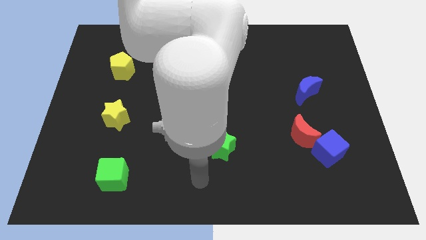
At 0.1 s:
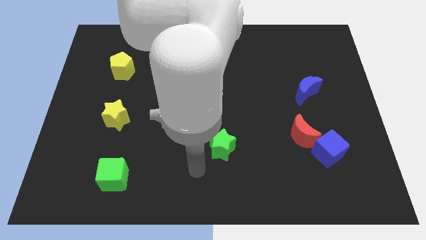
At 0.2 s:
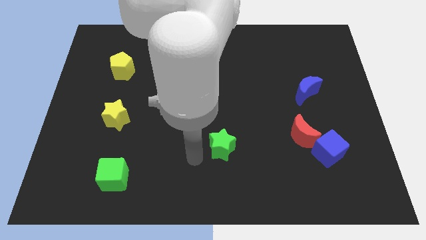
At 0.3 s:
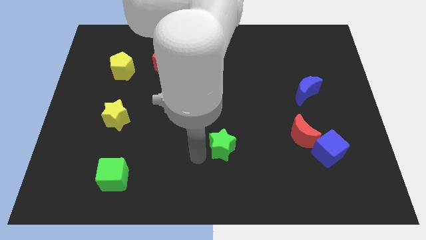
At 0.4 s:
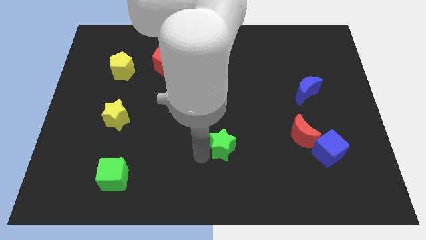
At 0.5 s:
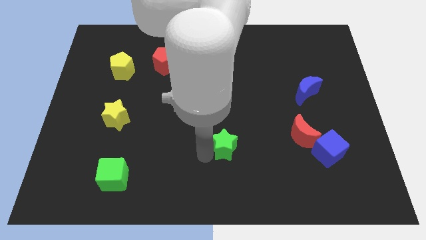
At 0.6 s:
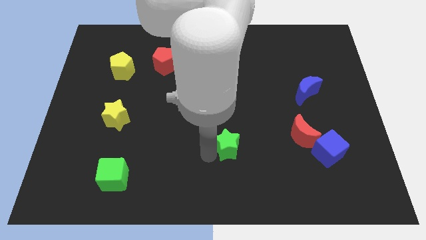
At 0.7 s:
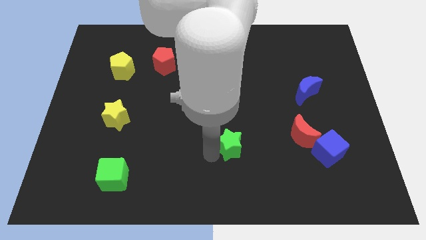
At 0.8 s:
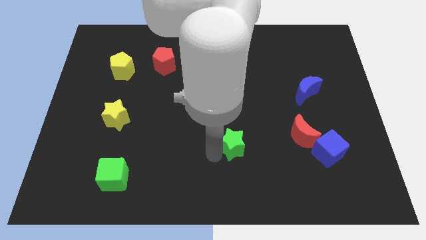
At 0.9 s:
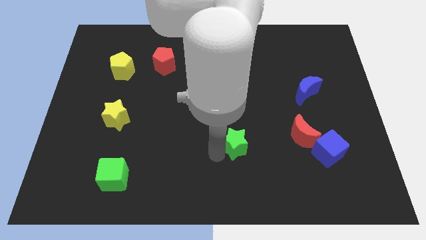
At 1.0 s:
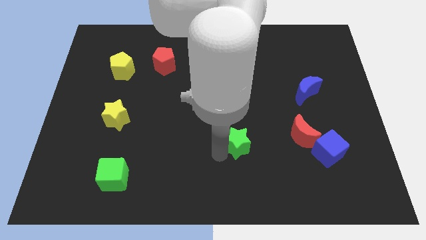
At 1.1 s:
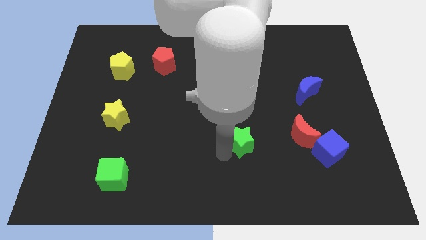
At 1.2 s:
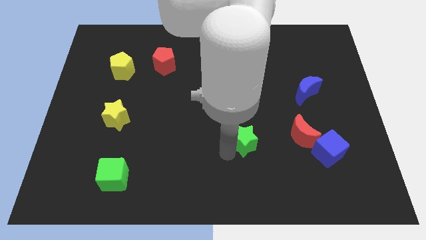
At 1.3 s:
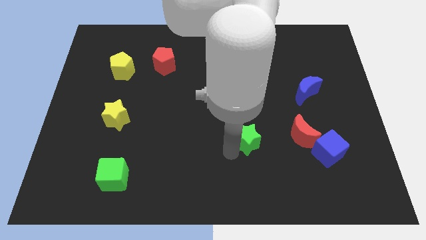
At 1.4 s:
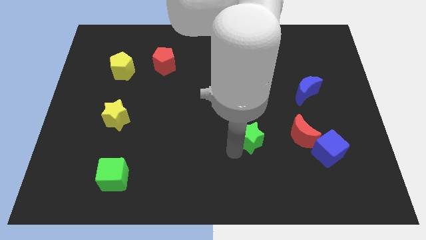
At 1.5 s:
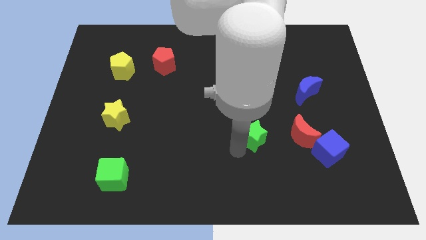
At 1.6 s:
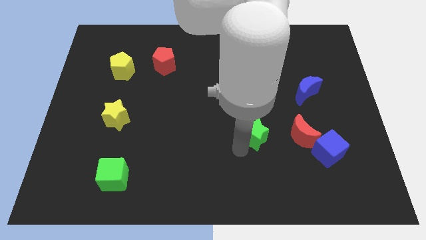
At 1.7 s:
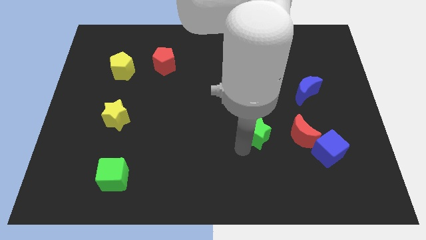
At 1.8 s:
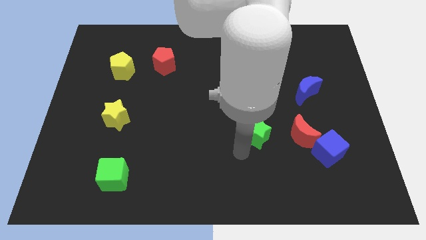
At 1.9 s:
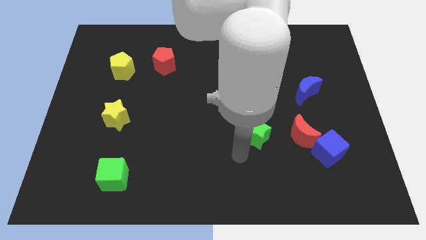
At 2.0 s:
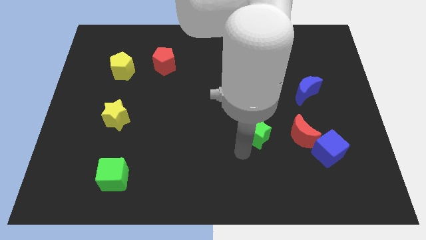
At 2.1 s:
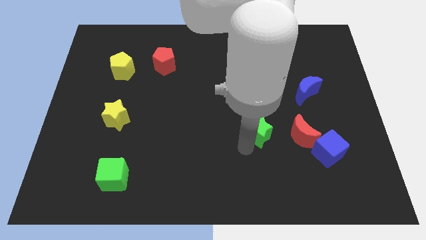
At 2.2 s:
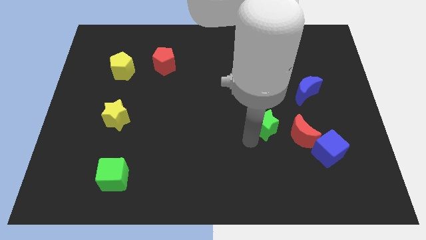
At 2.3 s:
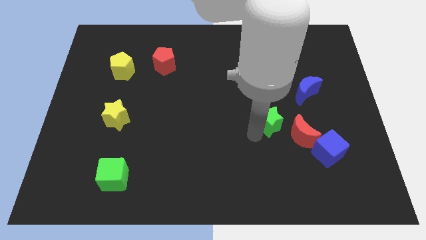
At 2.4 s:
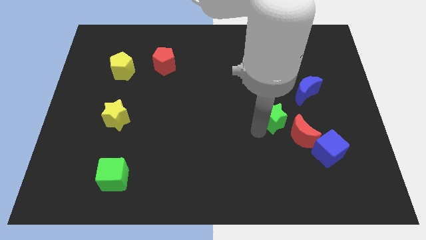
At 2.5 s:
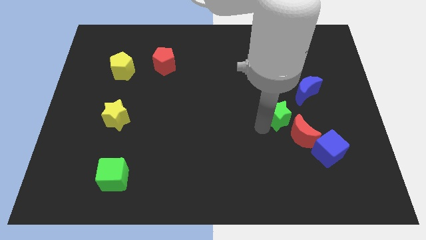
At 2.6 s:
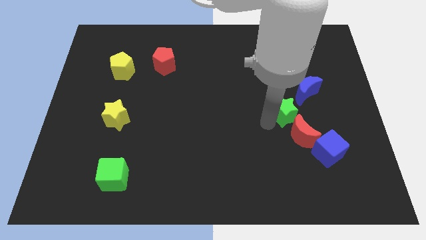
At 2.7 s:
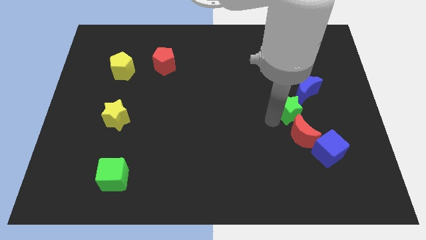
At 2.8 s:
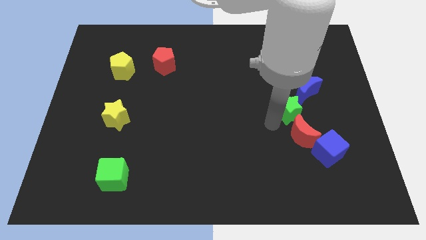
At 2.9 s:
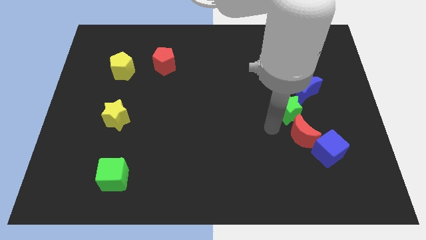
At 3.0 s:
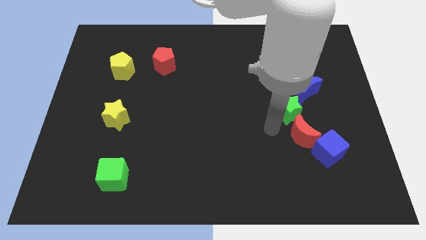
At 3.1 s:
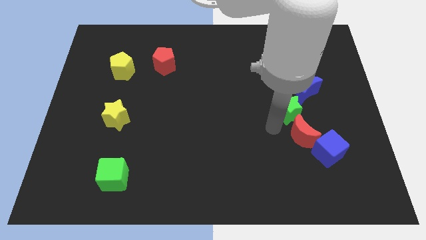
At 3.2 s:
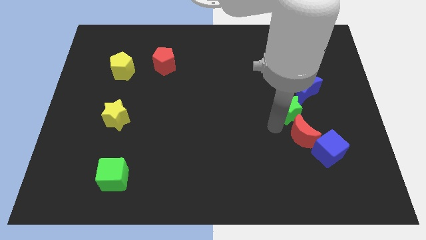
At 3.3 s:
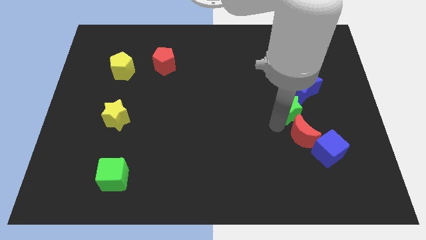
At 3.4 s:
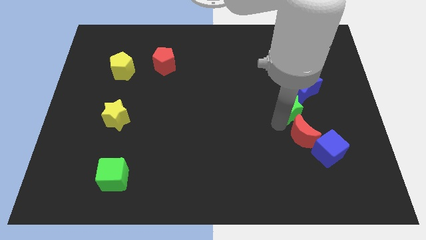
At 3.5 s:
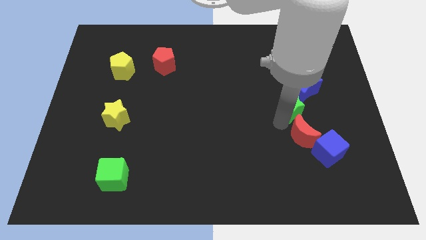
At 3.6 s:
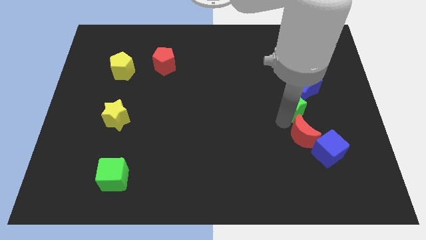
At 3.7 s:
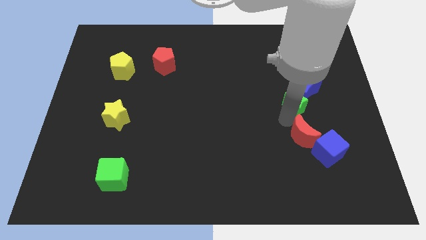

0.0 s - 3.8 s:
put the green star close to the blue moon

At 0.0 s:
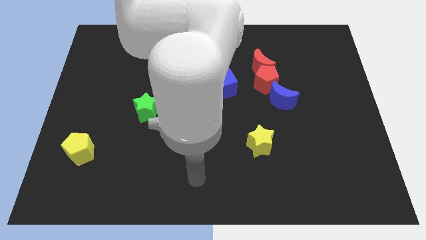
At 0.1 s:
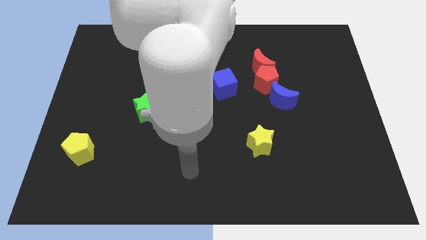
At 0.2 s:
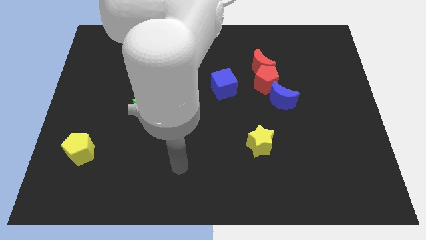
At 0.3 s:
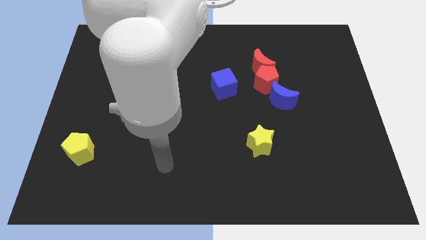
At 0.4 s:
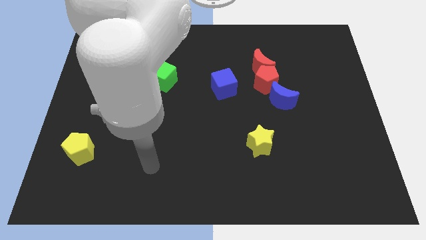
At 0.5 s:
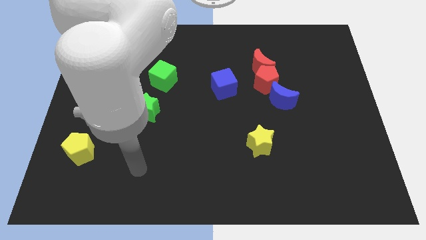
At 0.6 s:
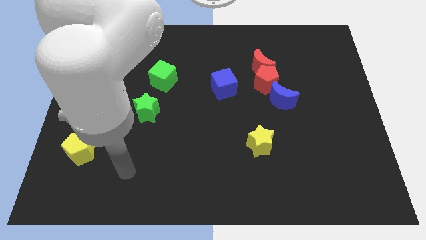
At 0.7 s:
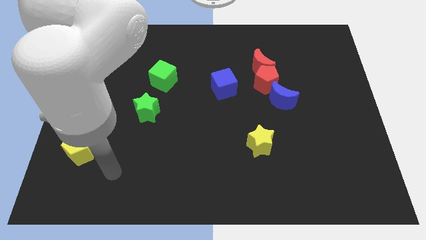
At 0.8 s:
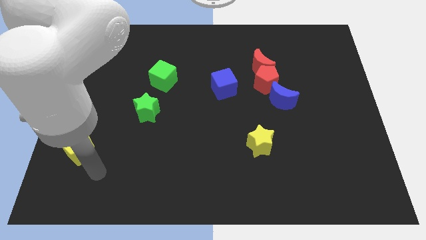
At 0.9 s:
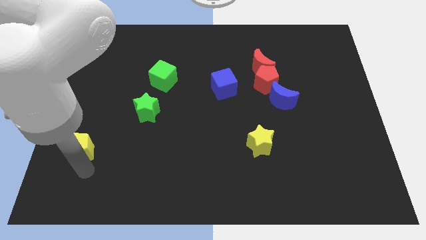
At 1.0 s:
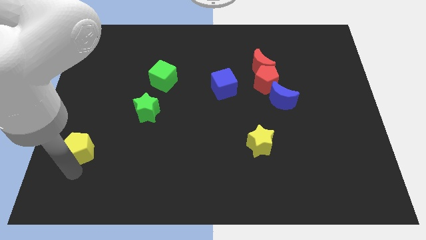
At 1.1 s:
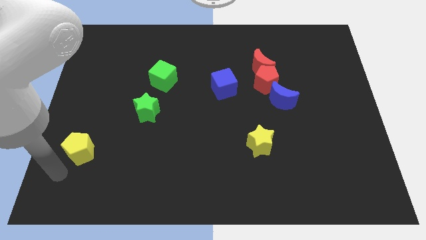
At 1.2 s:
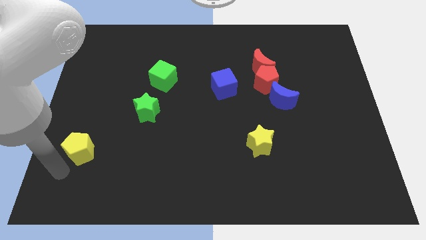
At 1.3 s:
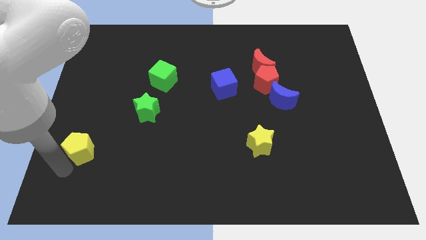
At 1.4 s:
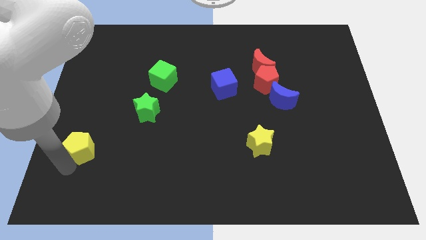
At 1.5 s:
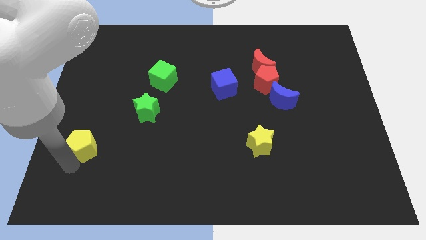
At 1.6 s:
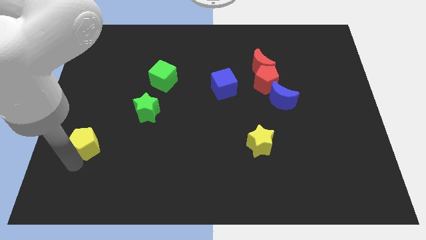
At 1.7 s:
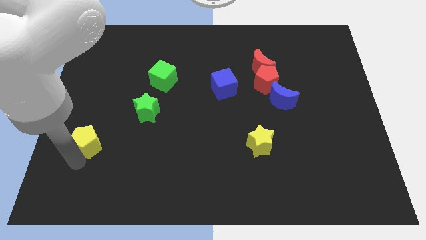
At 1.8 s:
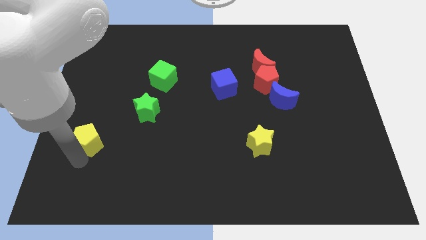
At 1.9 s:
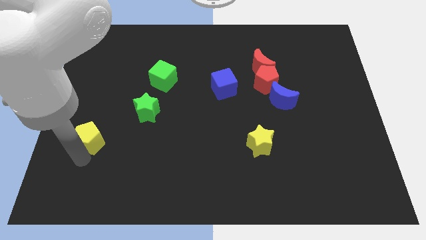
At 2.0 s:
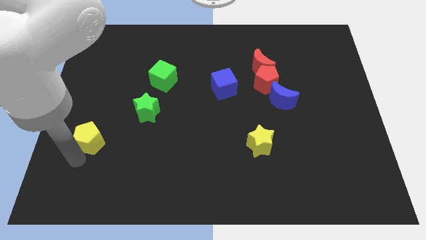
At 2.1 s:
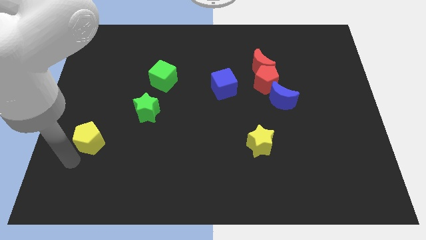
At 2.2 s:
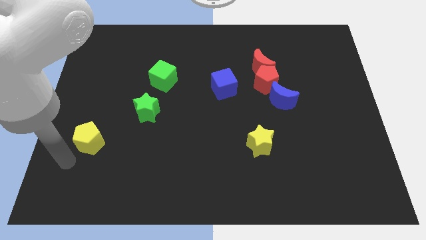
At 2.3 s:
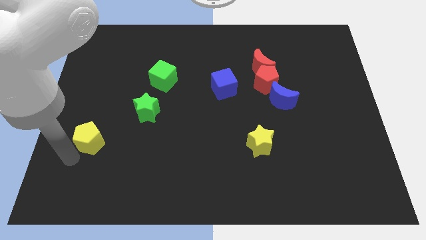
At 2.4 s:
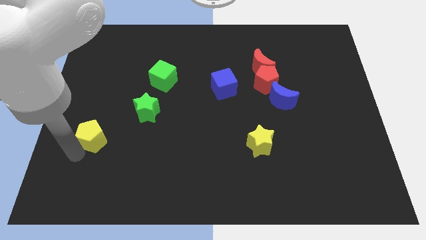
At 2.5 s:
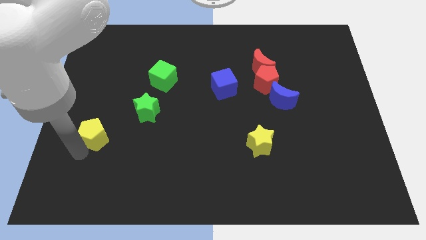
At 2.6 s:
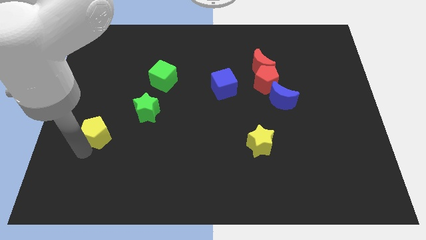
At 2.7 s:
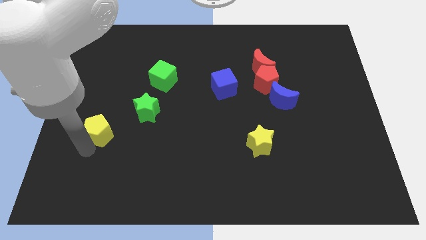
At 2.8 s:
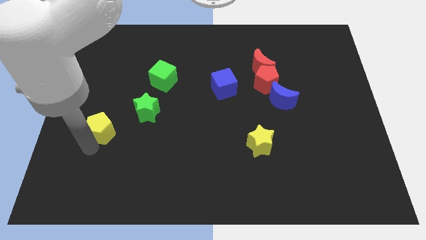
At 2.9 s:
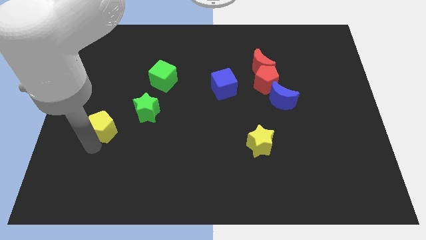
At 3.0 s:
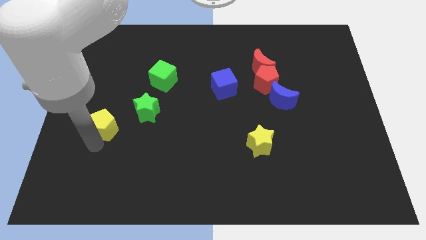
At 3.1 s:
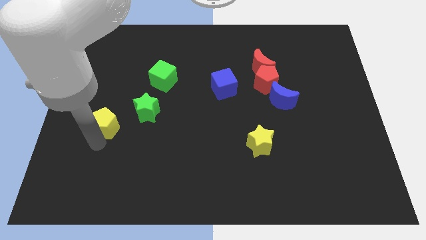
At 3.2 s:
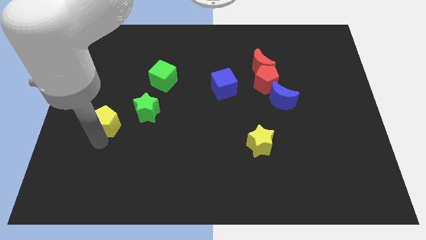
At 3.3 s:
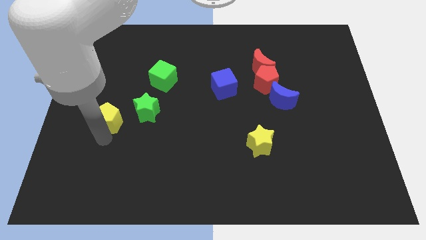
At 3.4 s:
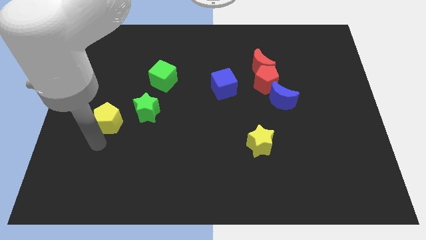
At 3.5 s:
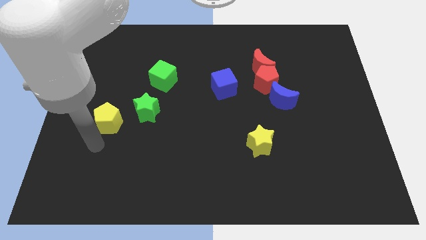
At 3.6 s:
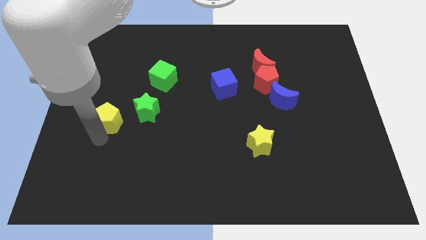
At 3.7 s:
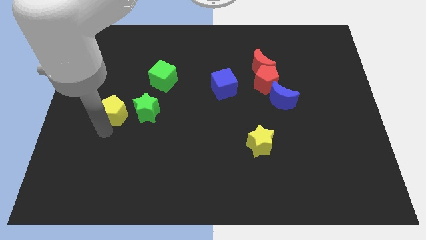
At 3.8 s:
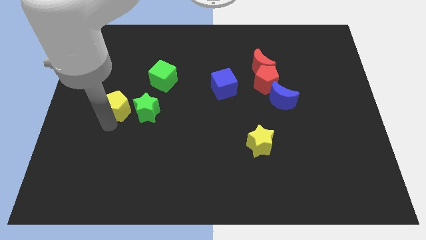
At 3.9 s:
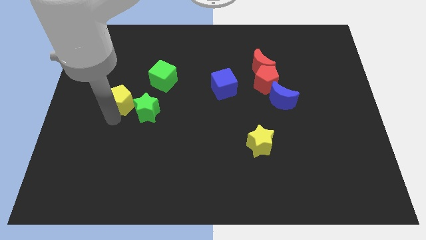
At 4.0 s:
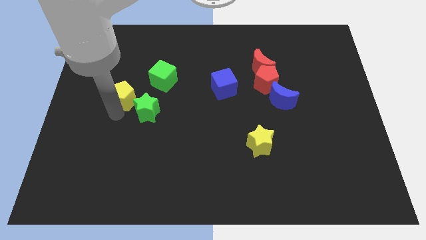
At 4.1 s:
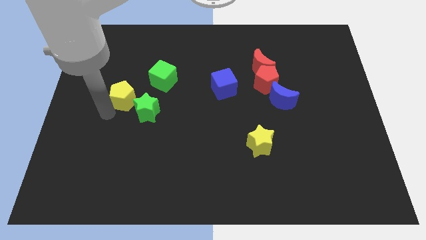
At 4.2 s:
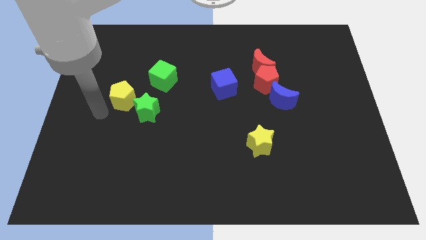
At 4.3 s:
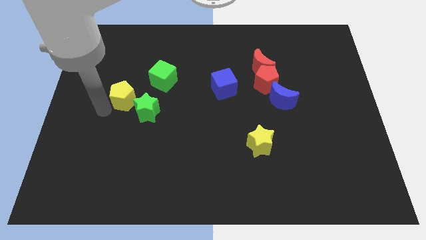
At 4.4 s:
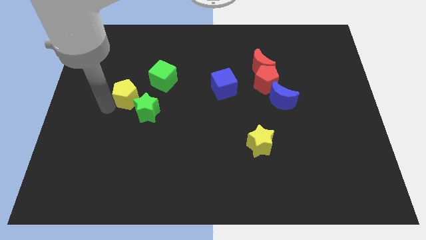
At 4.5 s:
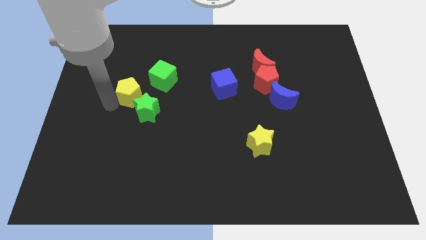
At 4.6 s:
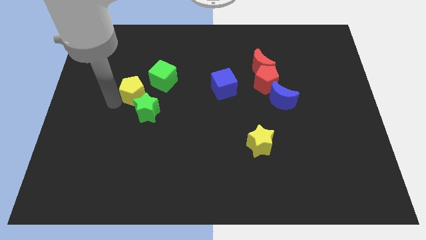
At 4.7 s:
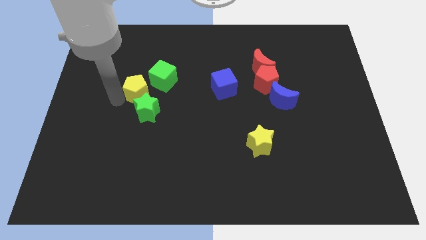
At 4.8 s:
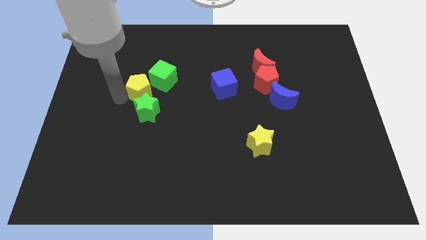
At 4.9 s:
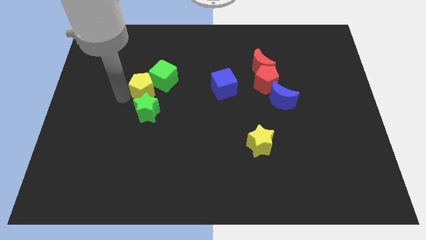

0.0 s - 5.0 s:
slide the yellow pentagon close to the green cube
